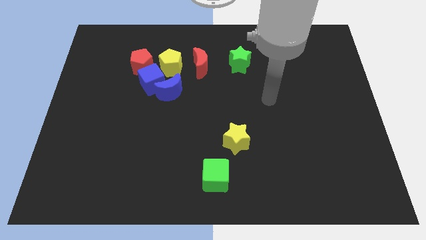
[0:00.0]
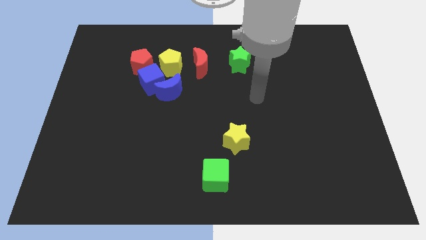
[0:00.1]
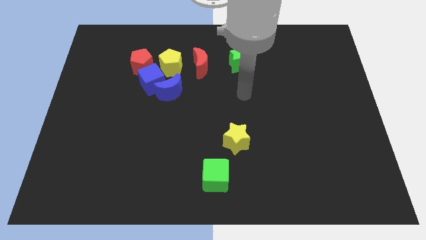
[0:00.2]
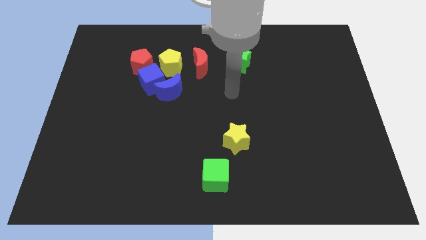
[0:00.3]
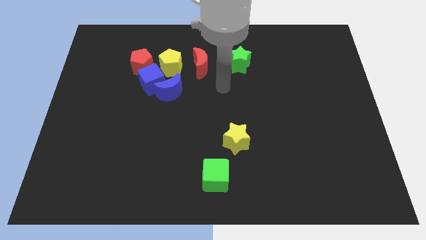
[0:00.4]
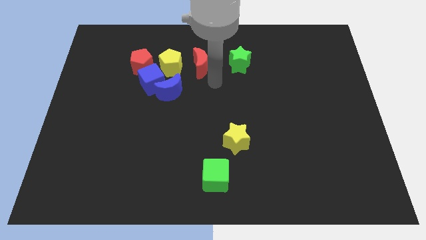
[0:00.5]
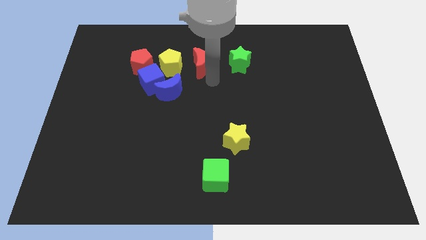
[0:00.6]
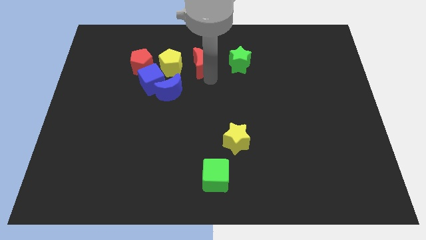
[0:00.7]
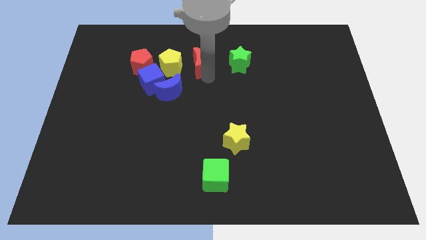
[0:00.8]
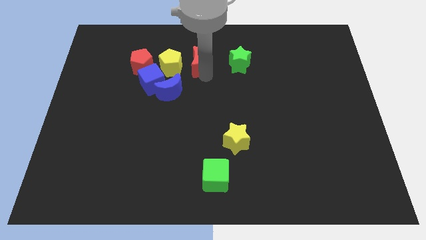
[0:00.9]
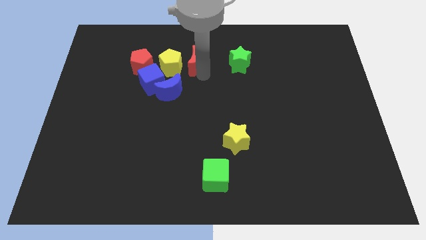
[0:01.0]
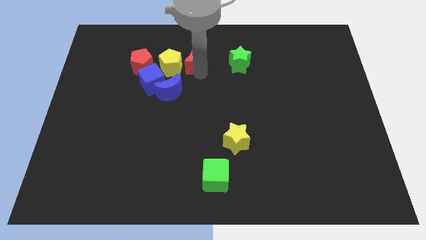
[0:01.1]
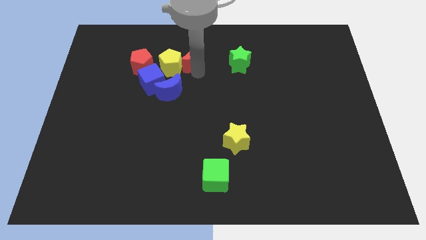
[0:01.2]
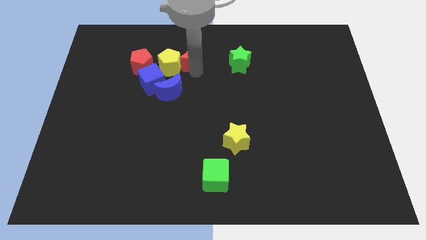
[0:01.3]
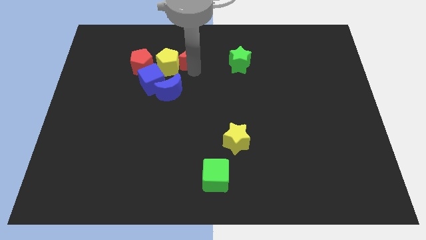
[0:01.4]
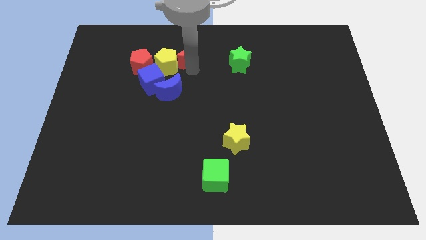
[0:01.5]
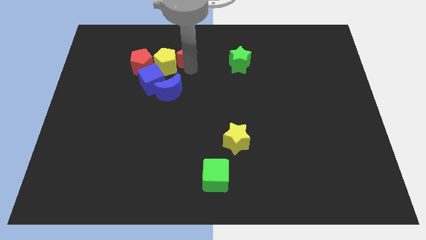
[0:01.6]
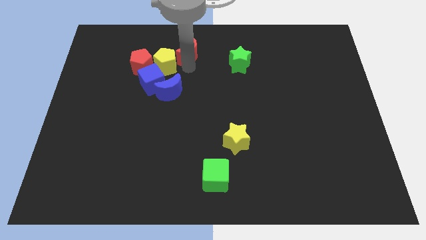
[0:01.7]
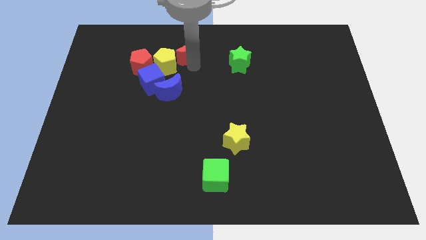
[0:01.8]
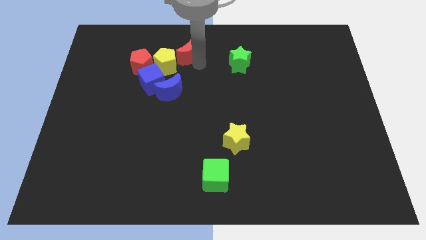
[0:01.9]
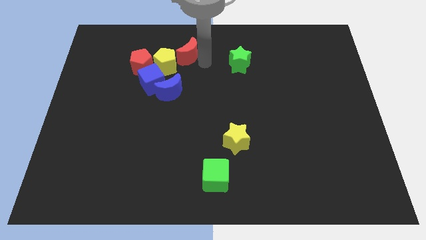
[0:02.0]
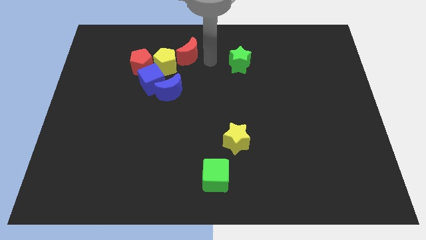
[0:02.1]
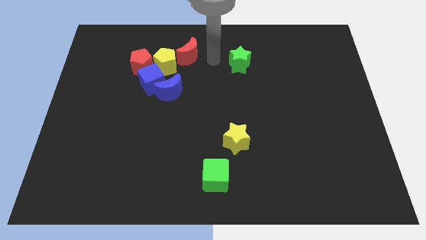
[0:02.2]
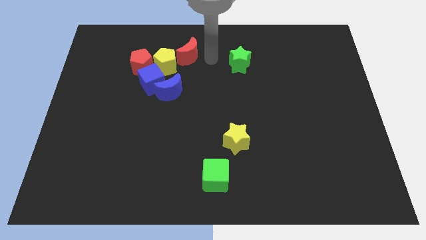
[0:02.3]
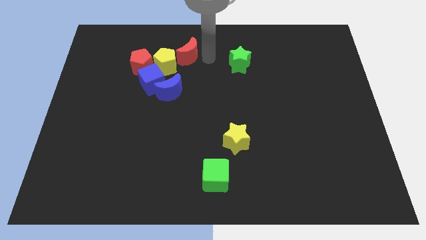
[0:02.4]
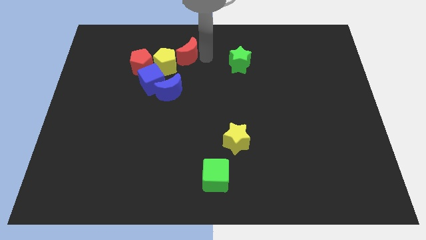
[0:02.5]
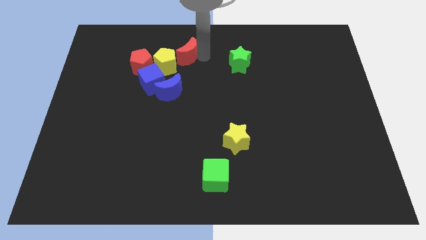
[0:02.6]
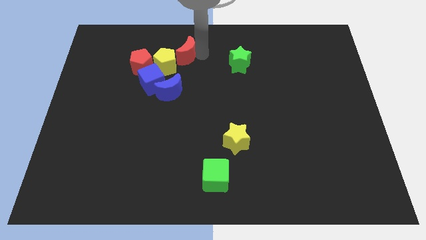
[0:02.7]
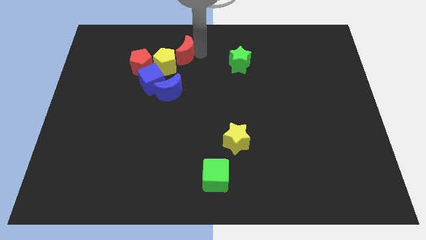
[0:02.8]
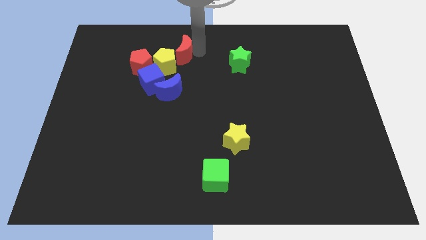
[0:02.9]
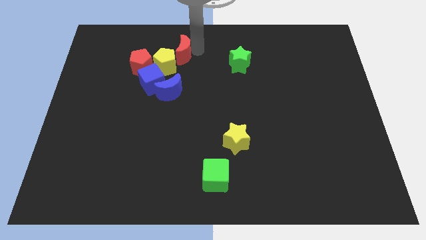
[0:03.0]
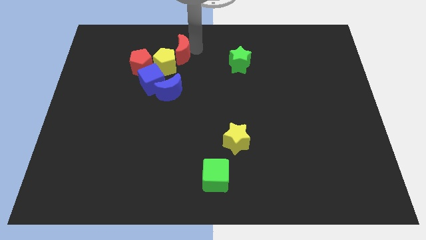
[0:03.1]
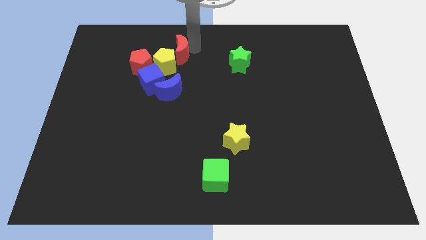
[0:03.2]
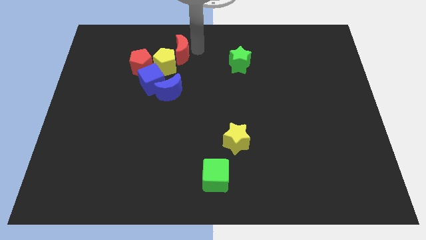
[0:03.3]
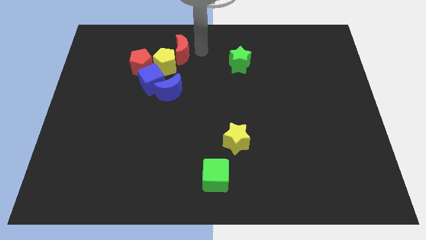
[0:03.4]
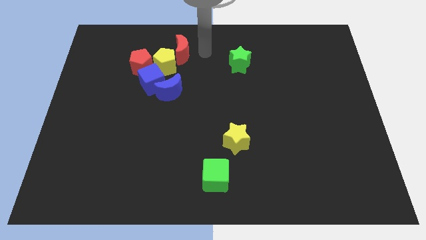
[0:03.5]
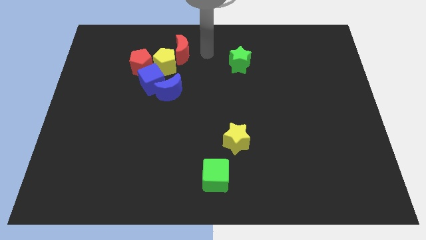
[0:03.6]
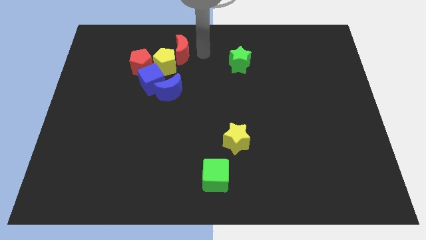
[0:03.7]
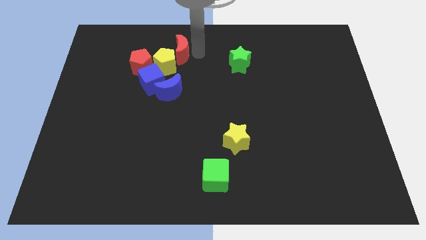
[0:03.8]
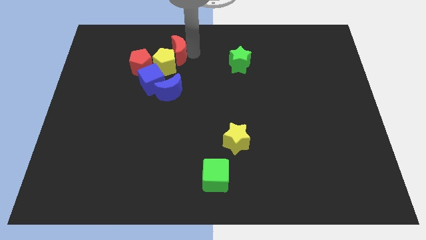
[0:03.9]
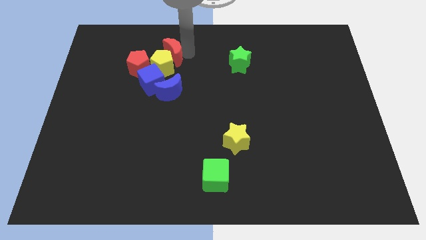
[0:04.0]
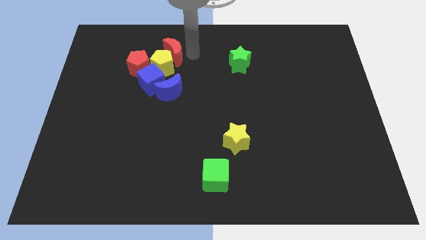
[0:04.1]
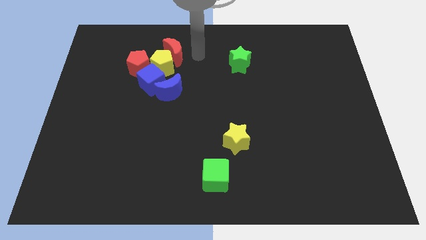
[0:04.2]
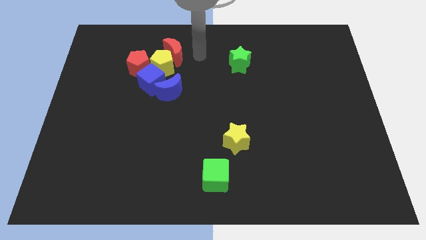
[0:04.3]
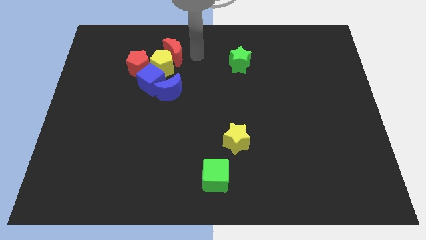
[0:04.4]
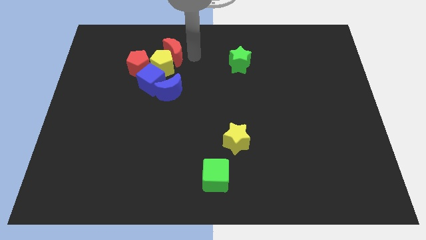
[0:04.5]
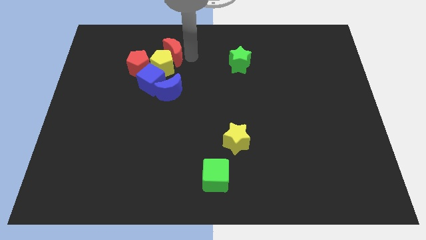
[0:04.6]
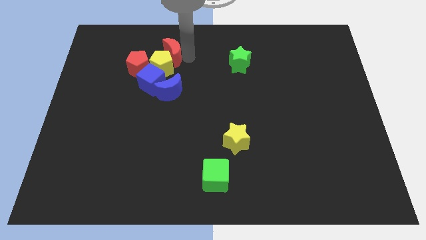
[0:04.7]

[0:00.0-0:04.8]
slightly slide the red moon to the left

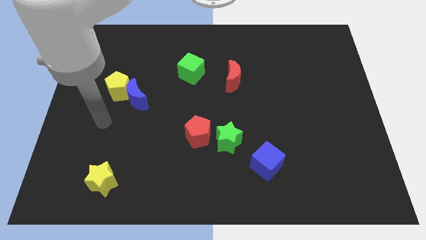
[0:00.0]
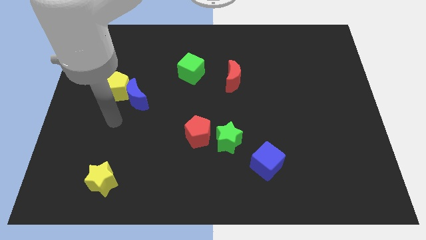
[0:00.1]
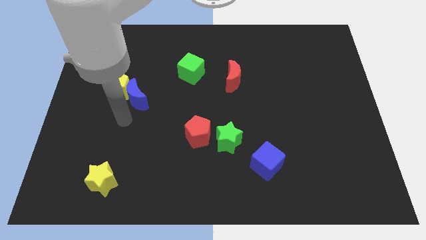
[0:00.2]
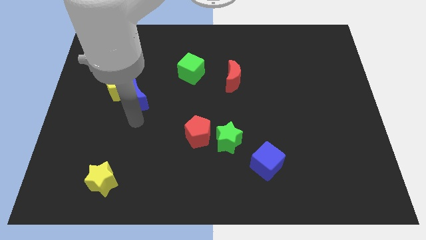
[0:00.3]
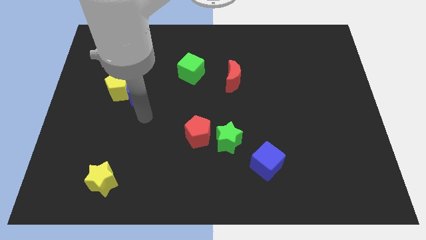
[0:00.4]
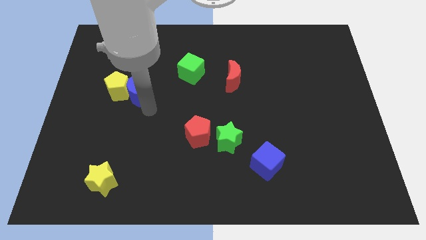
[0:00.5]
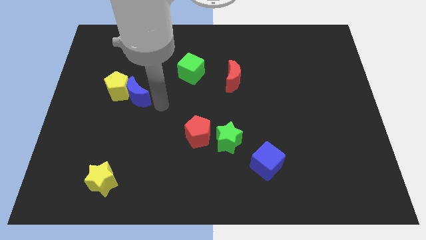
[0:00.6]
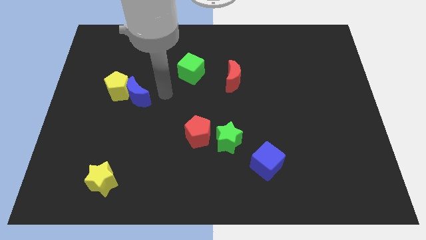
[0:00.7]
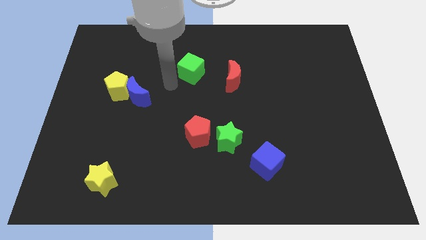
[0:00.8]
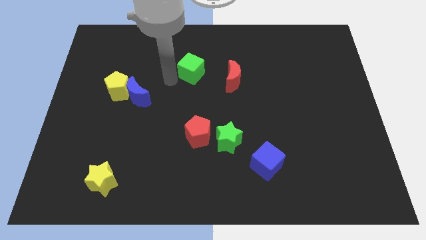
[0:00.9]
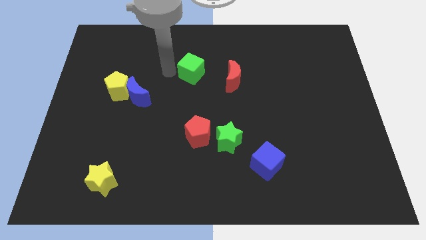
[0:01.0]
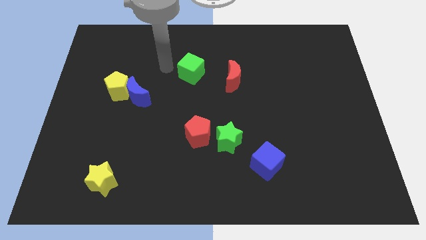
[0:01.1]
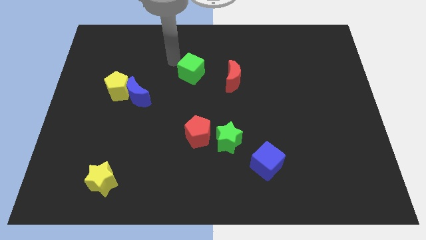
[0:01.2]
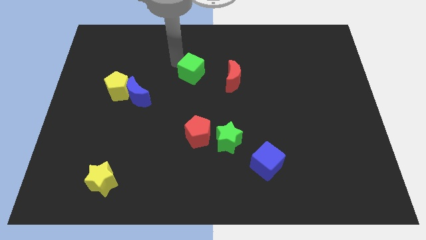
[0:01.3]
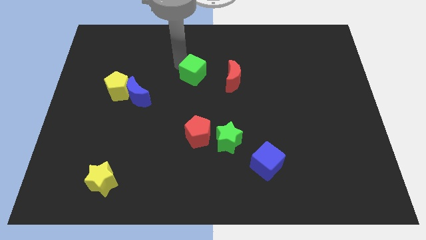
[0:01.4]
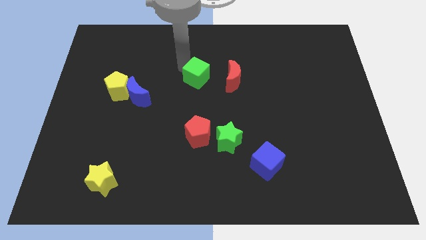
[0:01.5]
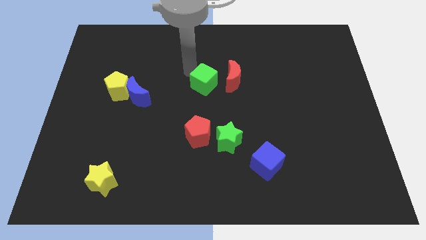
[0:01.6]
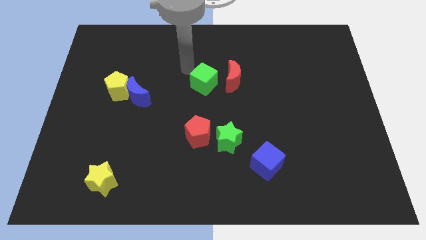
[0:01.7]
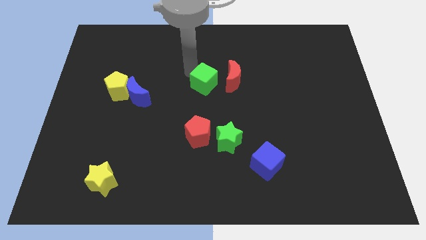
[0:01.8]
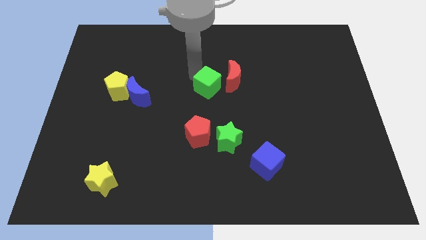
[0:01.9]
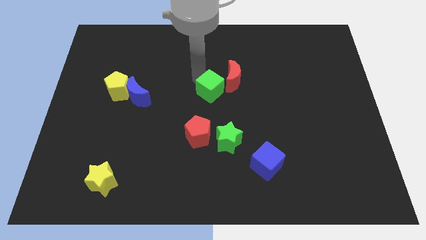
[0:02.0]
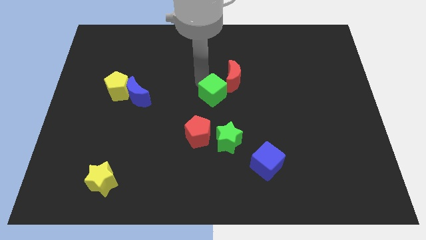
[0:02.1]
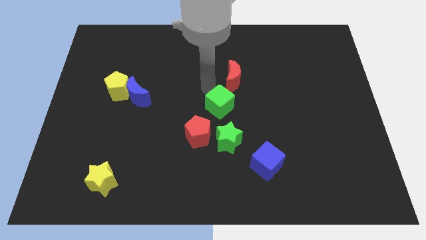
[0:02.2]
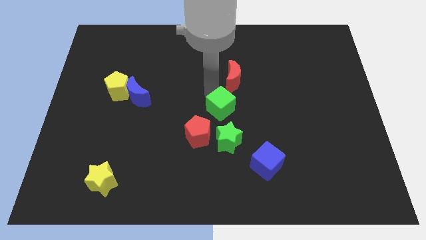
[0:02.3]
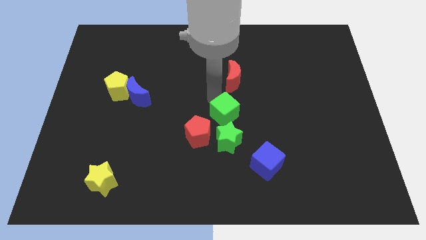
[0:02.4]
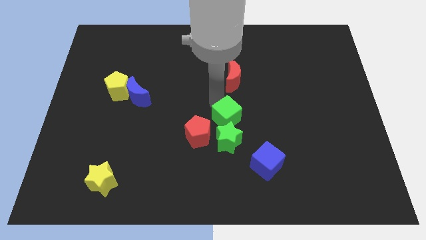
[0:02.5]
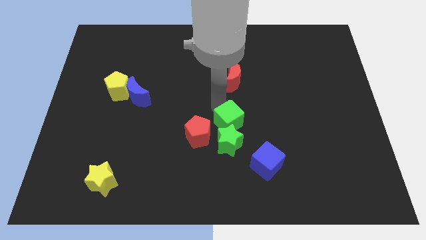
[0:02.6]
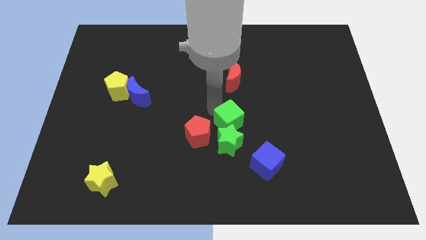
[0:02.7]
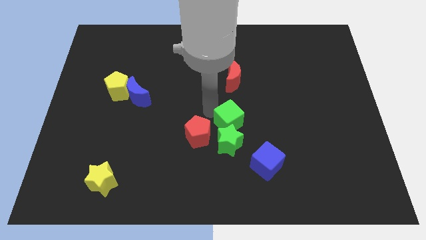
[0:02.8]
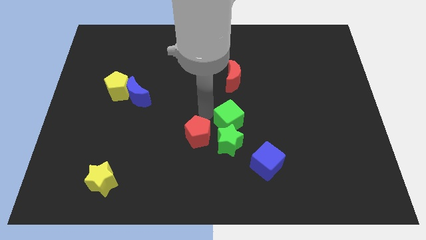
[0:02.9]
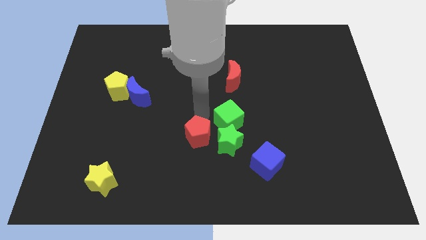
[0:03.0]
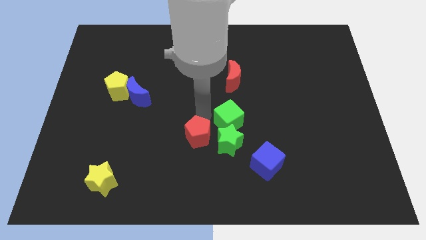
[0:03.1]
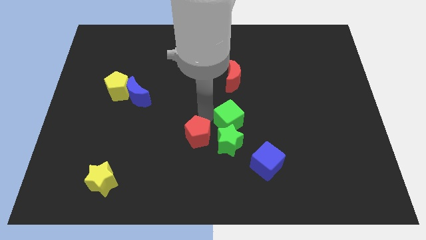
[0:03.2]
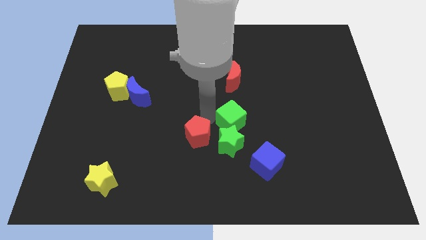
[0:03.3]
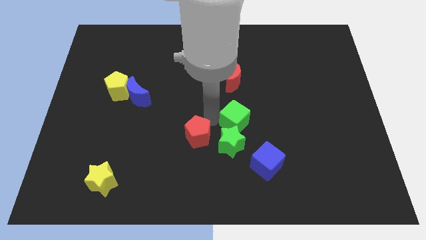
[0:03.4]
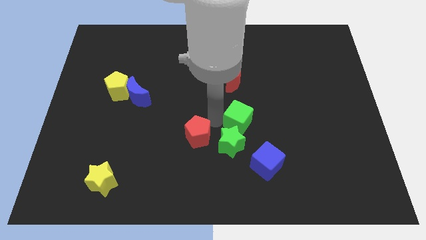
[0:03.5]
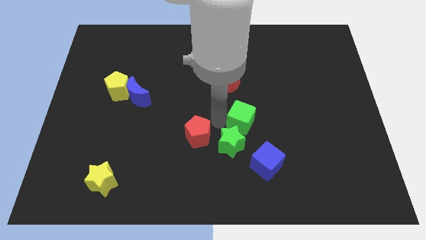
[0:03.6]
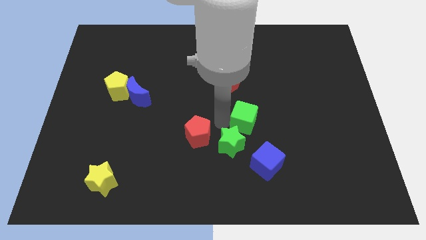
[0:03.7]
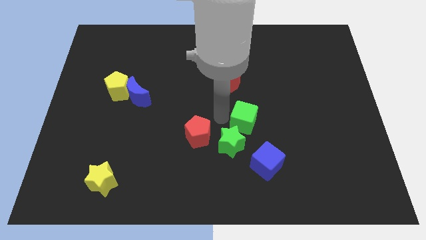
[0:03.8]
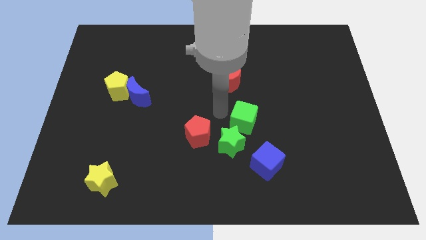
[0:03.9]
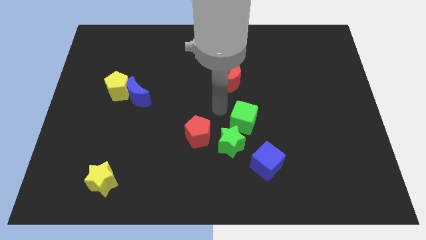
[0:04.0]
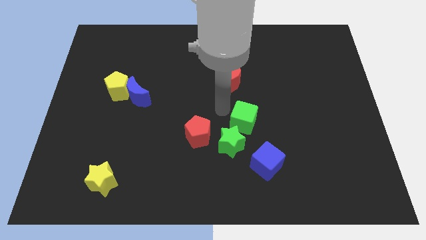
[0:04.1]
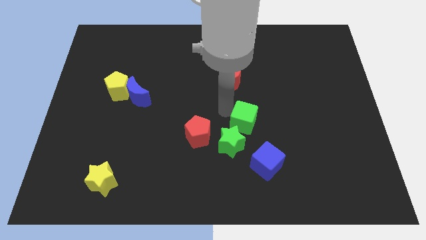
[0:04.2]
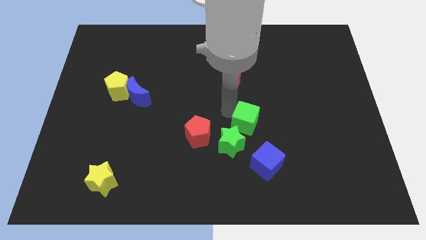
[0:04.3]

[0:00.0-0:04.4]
slide the green cube diagonally downwards and right
